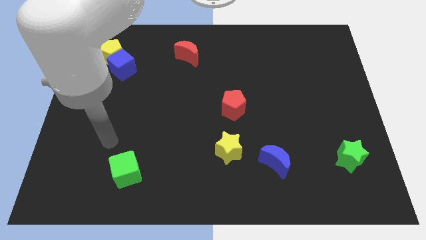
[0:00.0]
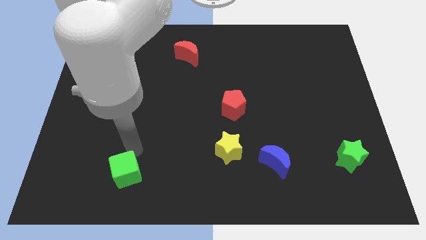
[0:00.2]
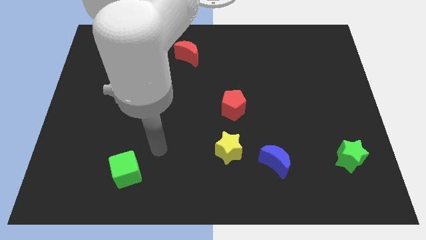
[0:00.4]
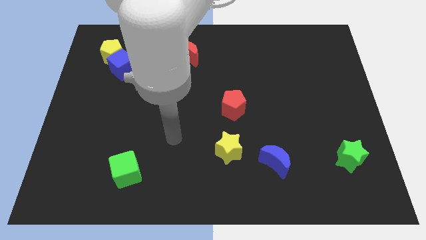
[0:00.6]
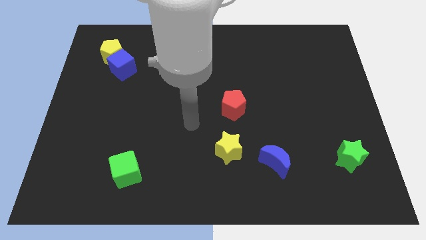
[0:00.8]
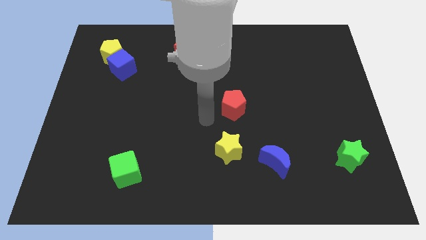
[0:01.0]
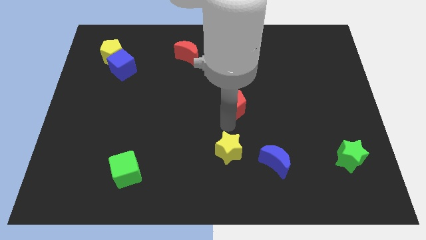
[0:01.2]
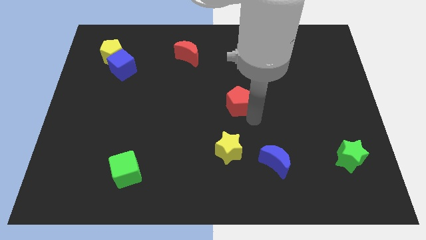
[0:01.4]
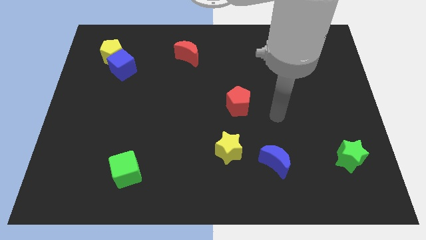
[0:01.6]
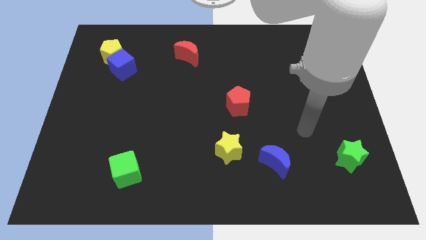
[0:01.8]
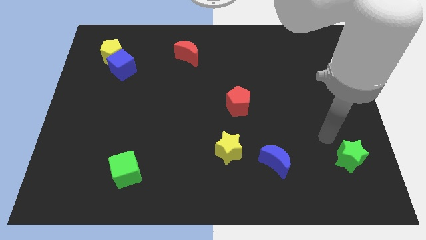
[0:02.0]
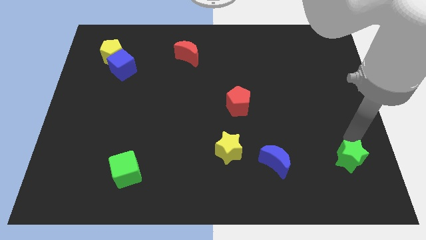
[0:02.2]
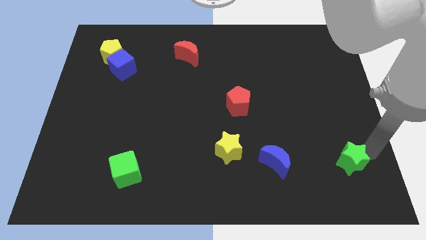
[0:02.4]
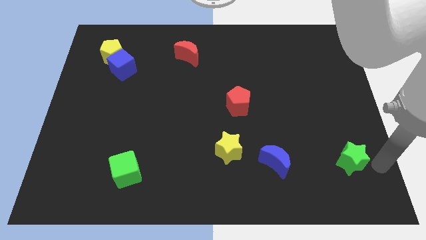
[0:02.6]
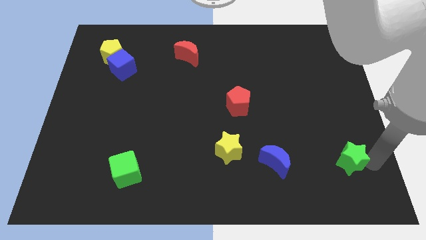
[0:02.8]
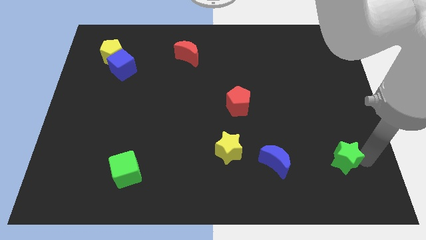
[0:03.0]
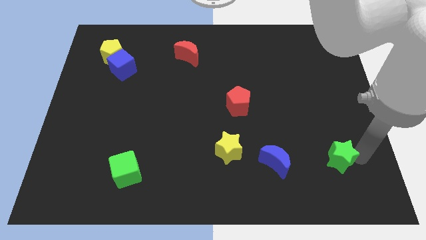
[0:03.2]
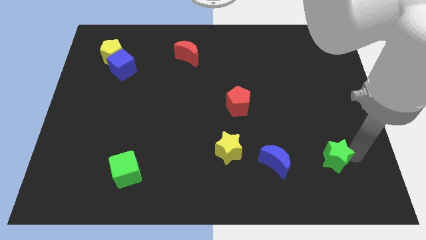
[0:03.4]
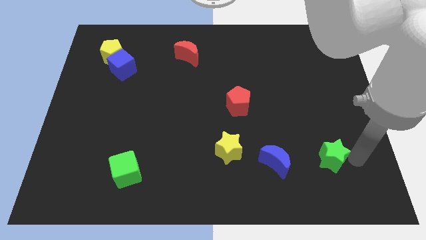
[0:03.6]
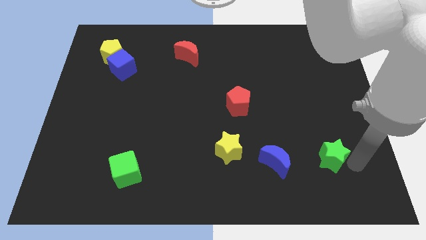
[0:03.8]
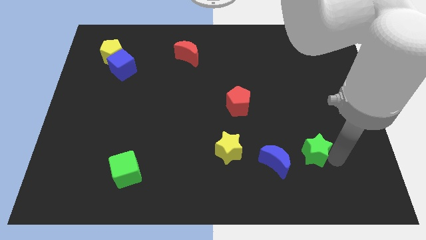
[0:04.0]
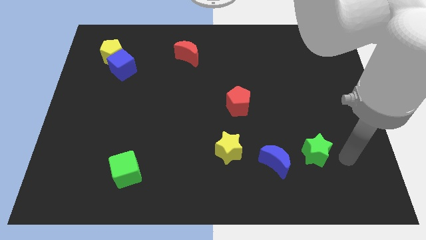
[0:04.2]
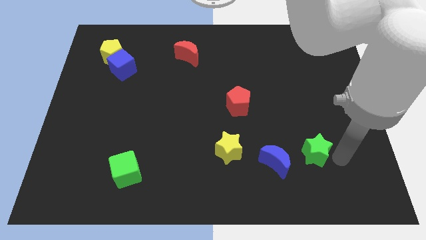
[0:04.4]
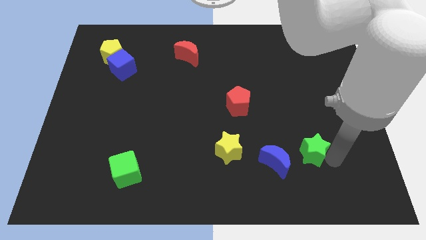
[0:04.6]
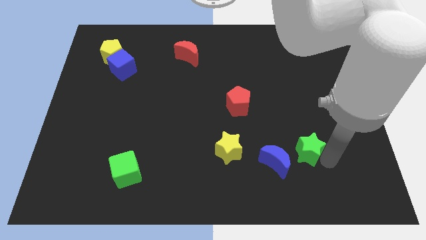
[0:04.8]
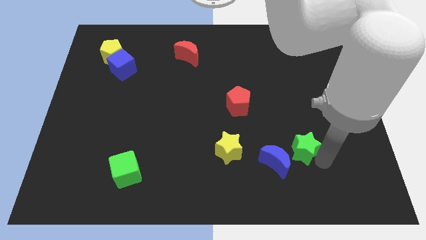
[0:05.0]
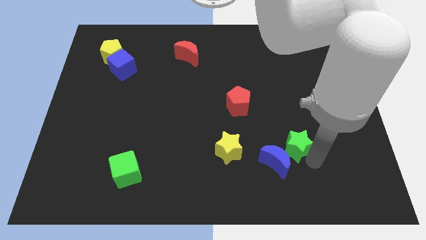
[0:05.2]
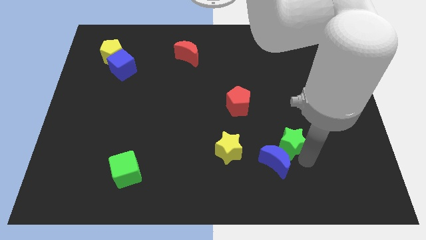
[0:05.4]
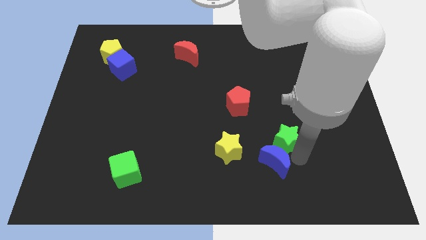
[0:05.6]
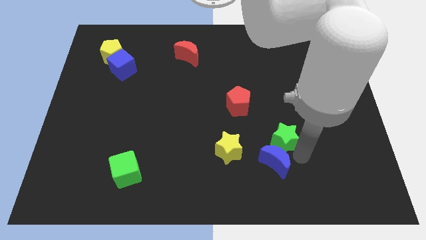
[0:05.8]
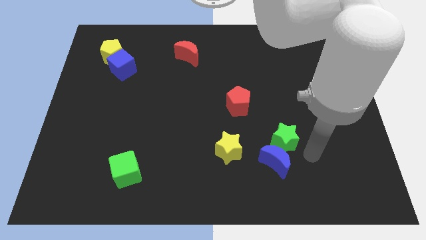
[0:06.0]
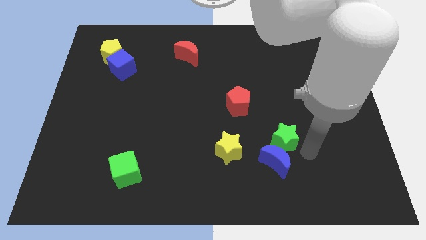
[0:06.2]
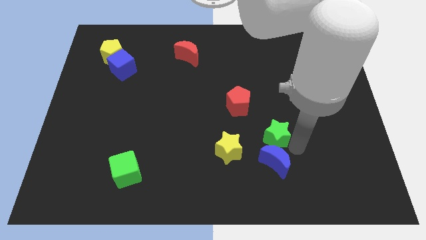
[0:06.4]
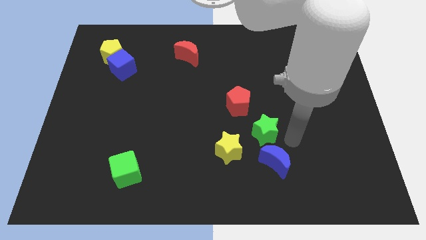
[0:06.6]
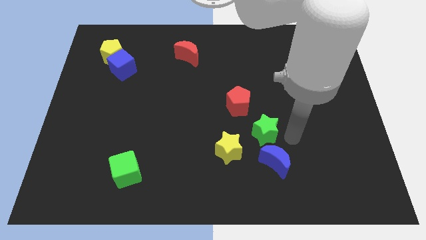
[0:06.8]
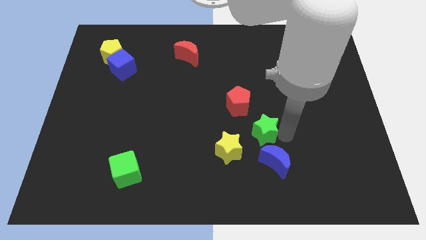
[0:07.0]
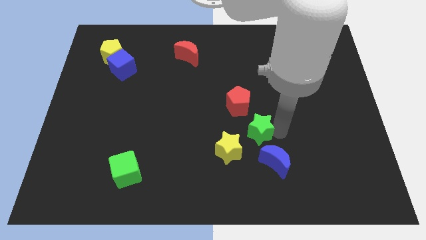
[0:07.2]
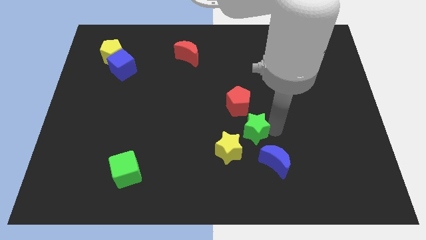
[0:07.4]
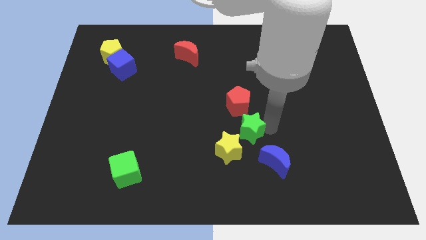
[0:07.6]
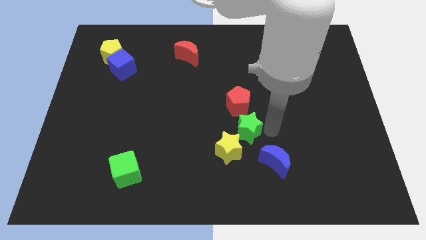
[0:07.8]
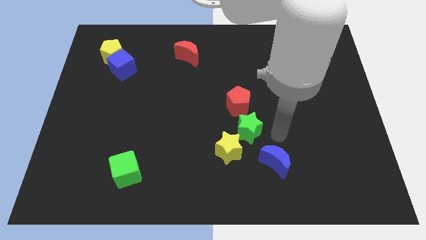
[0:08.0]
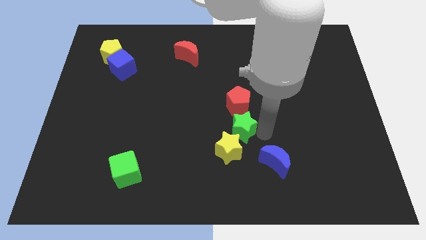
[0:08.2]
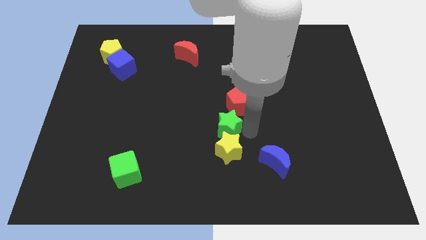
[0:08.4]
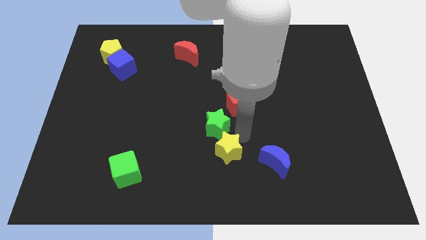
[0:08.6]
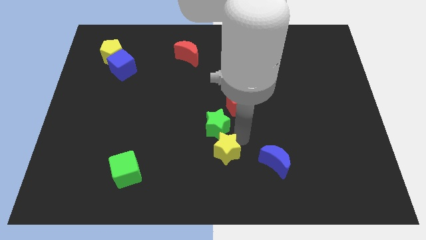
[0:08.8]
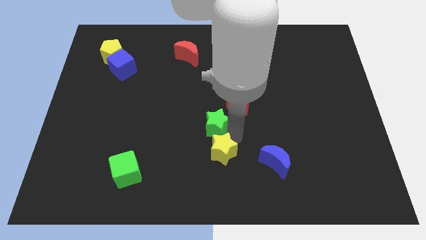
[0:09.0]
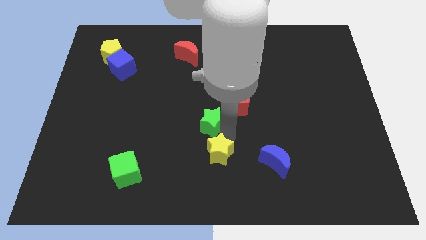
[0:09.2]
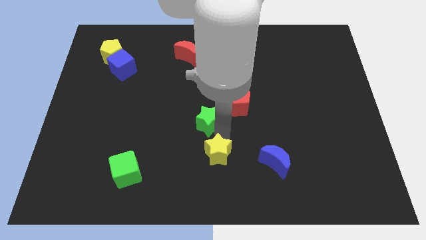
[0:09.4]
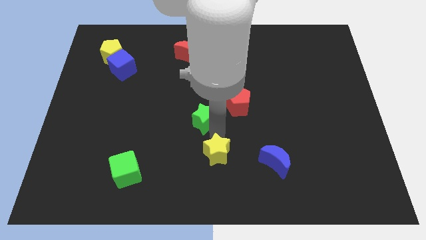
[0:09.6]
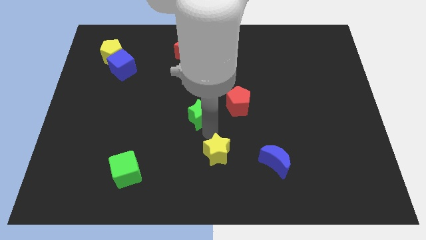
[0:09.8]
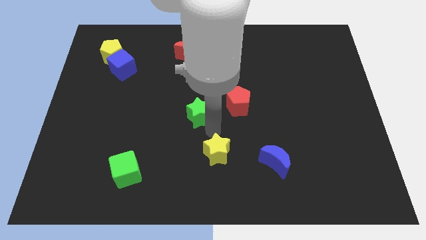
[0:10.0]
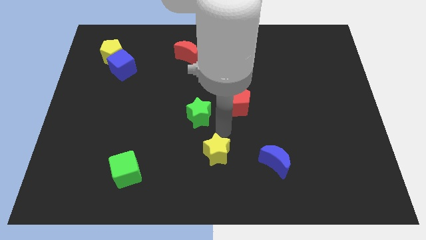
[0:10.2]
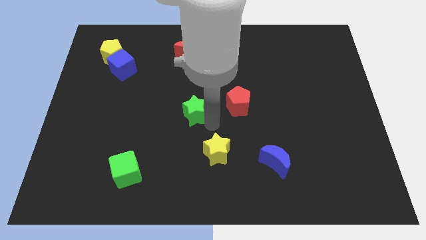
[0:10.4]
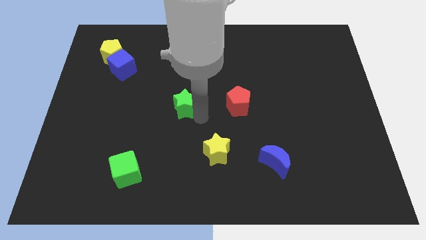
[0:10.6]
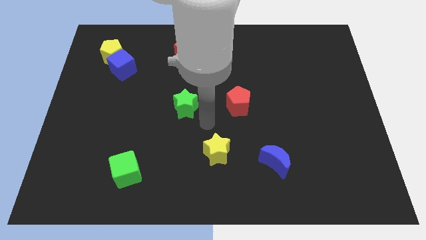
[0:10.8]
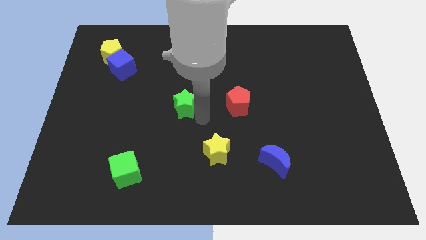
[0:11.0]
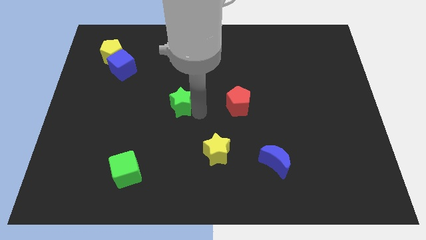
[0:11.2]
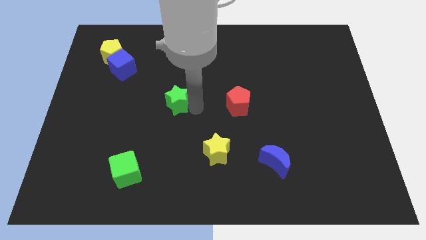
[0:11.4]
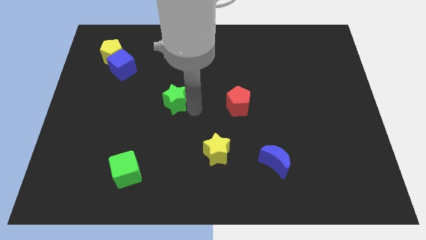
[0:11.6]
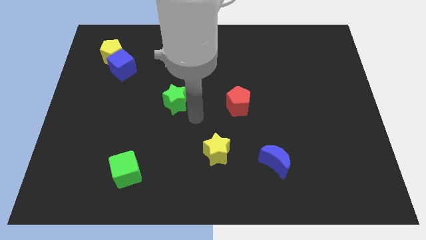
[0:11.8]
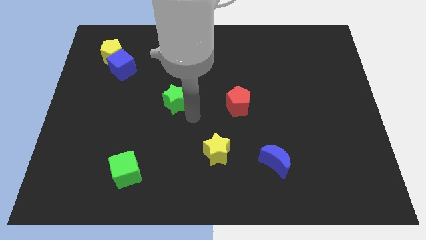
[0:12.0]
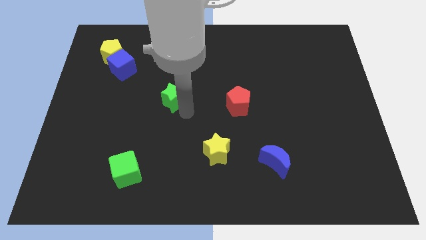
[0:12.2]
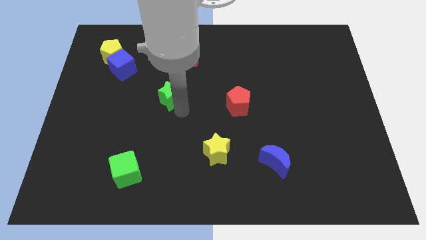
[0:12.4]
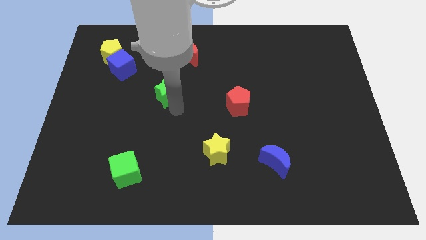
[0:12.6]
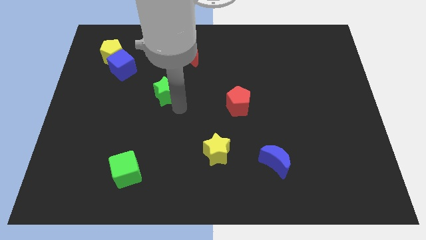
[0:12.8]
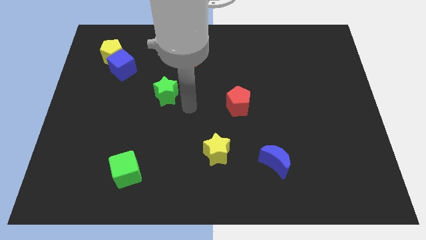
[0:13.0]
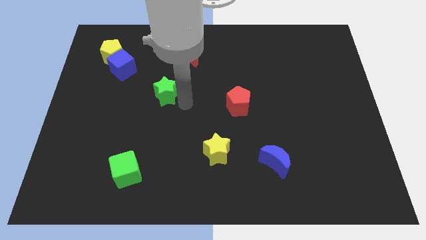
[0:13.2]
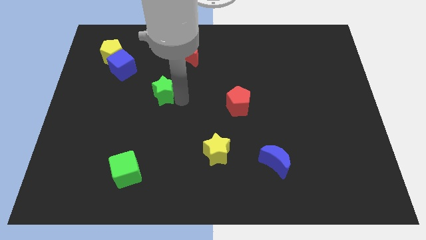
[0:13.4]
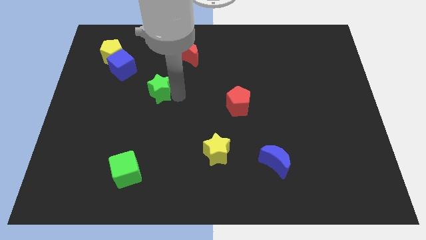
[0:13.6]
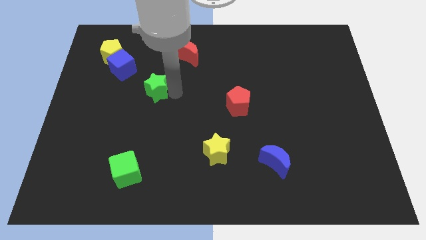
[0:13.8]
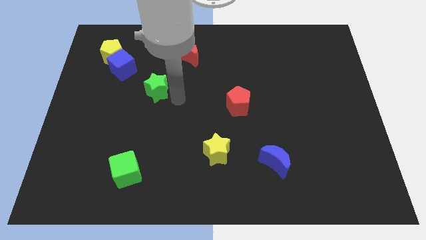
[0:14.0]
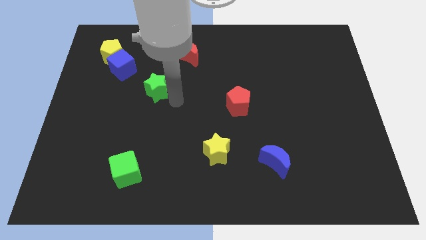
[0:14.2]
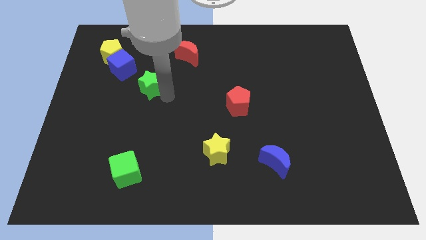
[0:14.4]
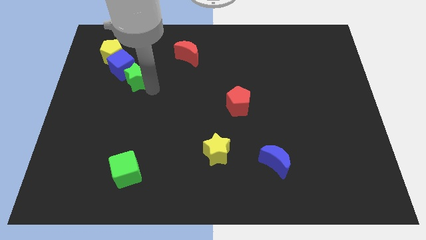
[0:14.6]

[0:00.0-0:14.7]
push the green star close to the blue cube

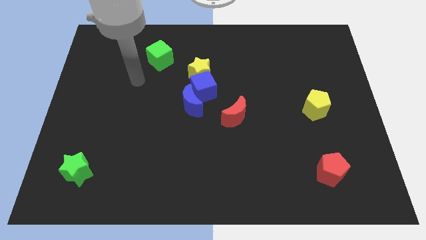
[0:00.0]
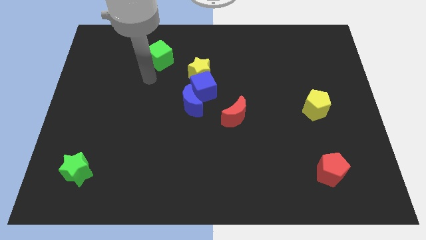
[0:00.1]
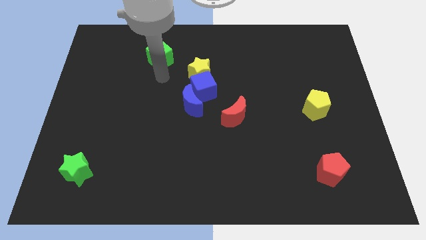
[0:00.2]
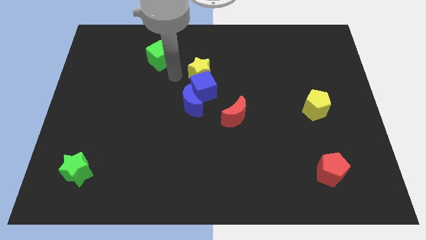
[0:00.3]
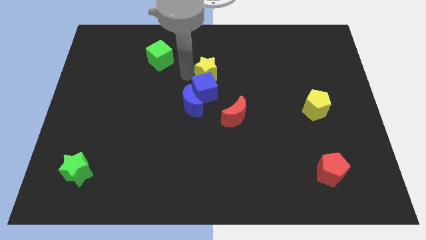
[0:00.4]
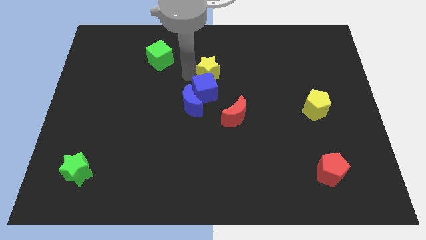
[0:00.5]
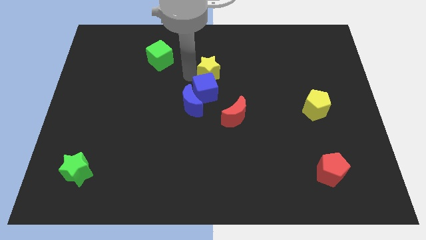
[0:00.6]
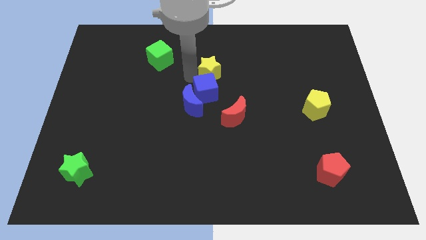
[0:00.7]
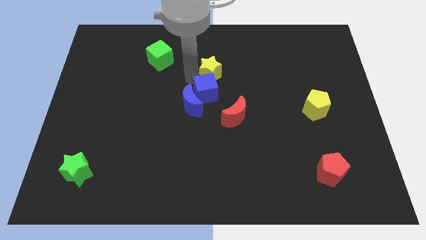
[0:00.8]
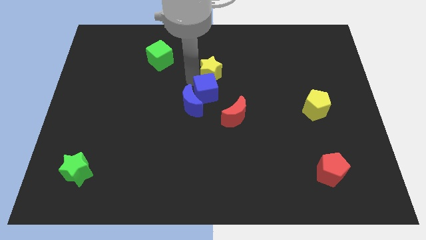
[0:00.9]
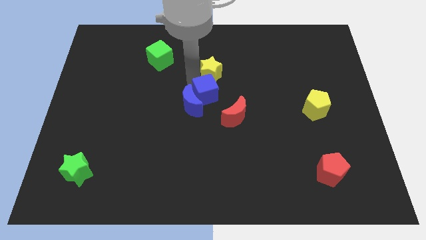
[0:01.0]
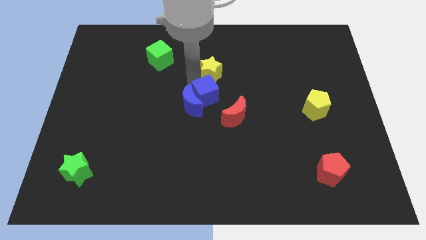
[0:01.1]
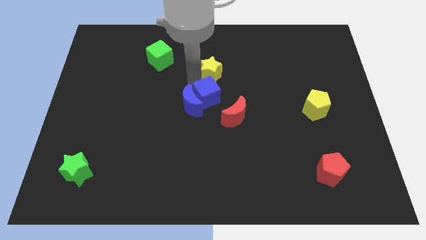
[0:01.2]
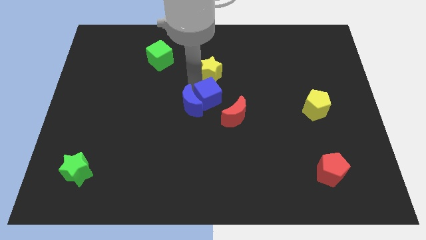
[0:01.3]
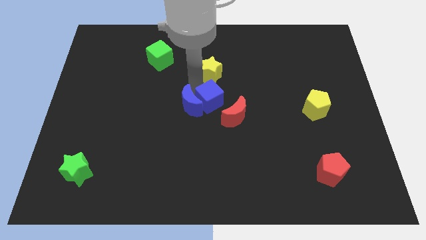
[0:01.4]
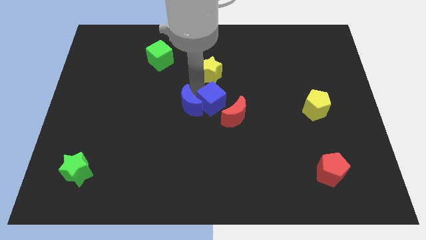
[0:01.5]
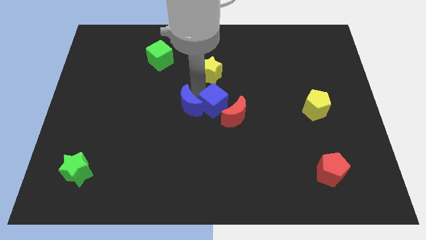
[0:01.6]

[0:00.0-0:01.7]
slide the blue cube to the red moon
